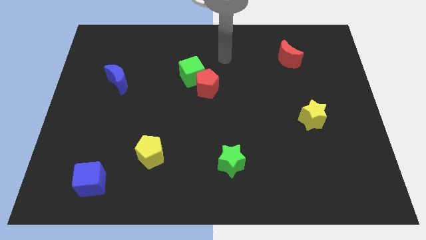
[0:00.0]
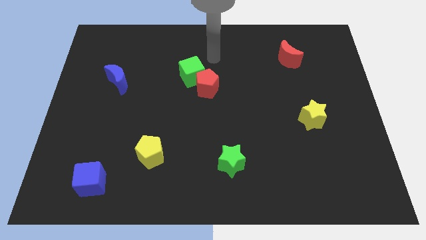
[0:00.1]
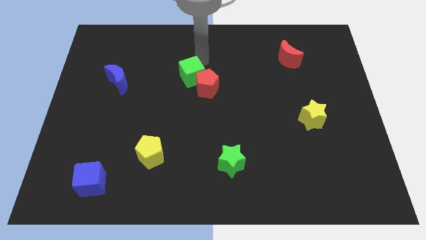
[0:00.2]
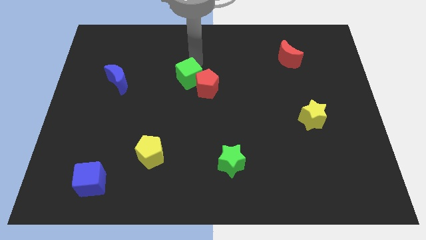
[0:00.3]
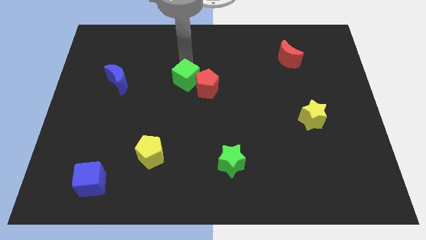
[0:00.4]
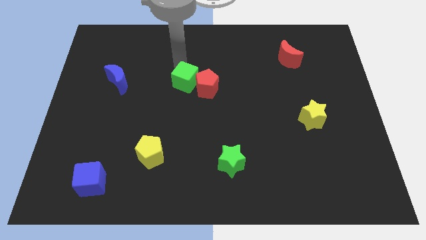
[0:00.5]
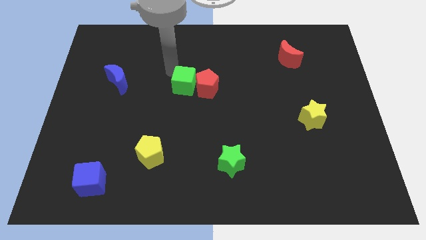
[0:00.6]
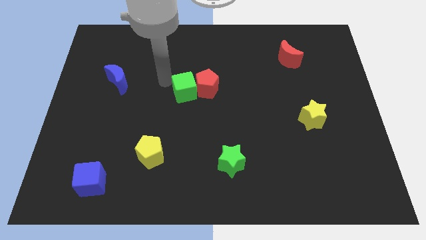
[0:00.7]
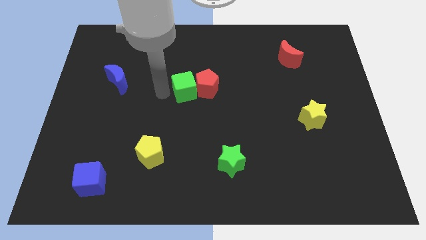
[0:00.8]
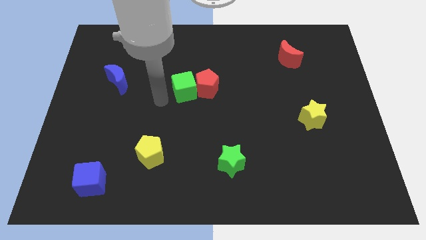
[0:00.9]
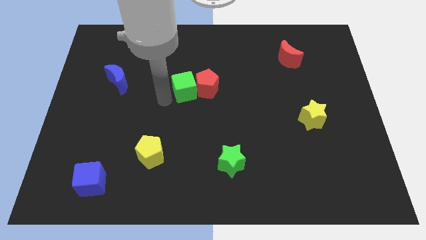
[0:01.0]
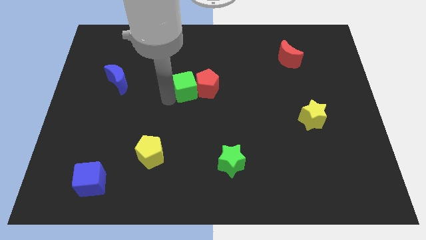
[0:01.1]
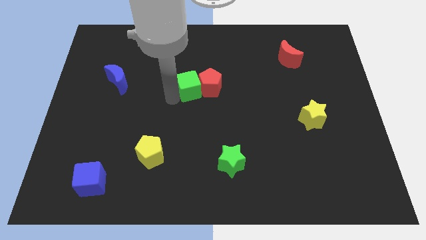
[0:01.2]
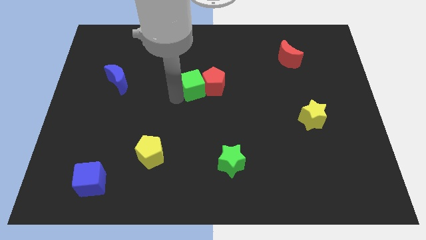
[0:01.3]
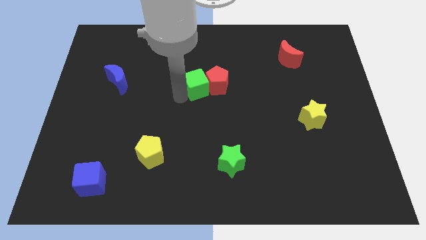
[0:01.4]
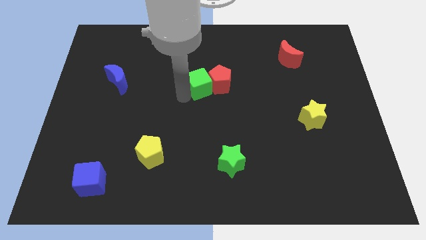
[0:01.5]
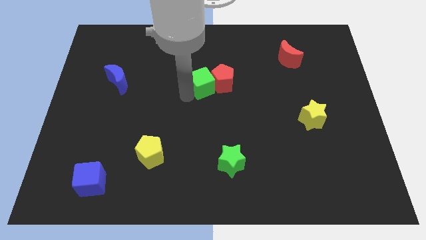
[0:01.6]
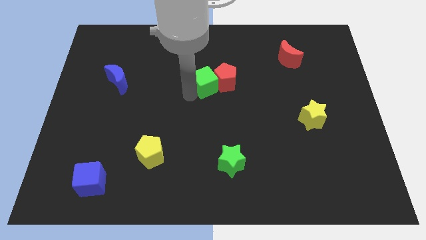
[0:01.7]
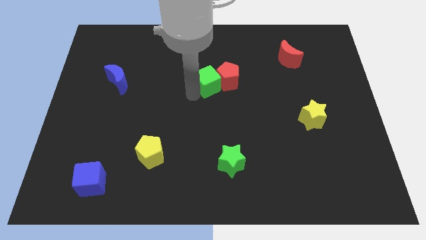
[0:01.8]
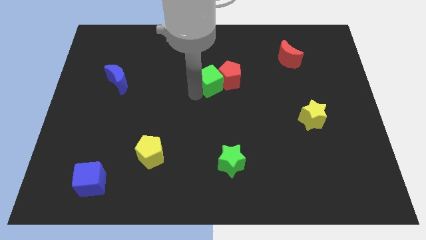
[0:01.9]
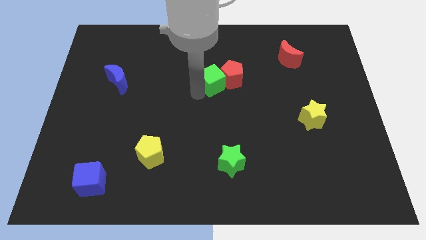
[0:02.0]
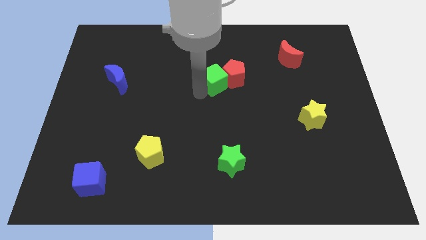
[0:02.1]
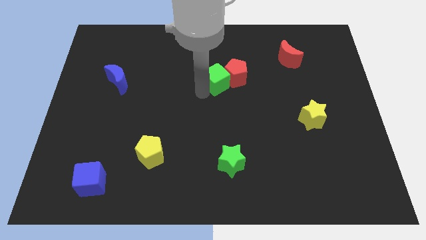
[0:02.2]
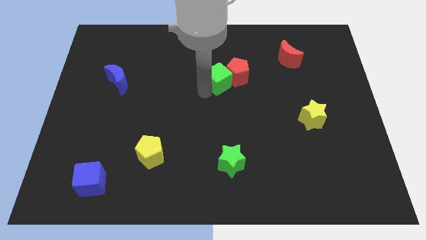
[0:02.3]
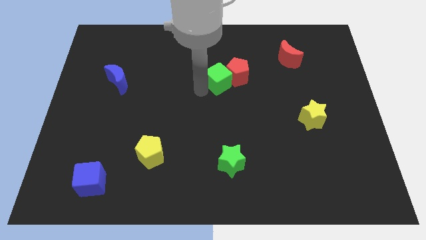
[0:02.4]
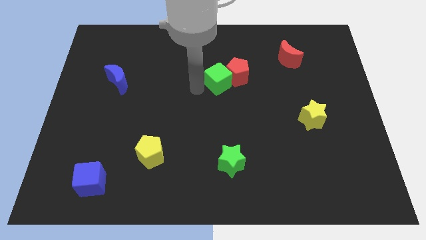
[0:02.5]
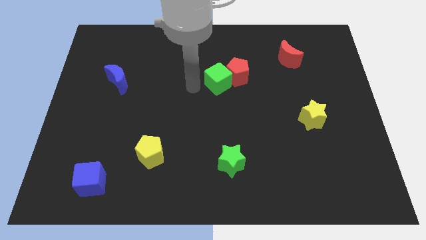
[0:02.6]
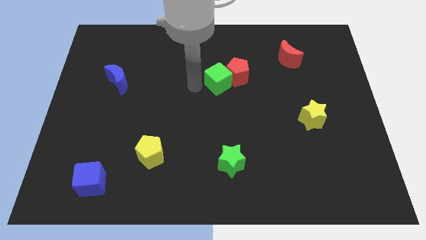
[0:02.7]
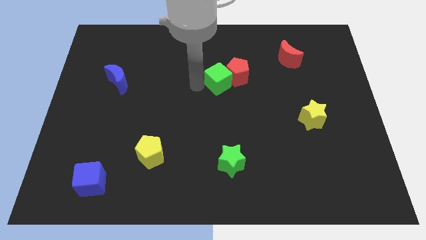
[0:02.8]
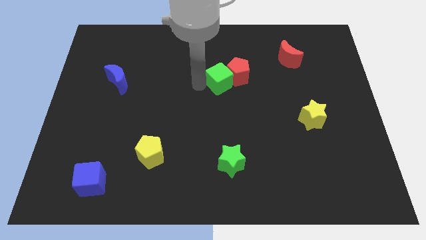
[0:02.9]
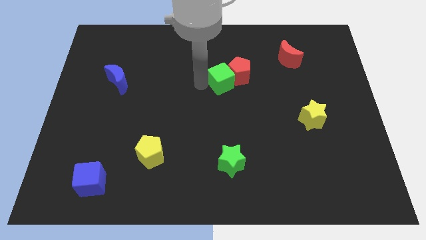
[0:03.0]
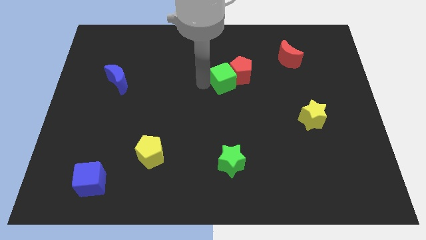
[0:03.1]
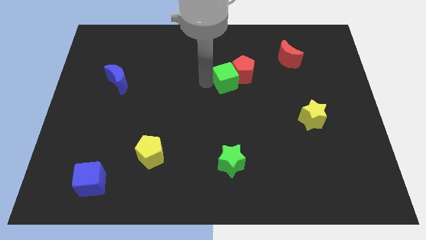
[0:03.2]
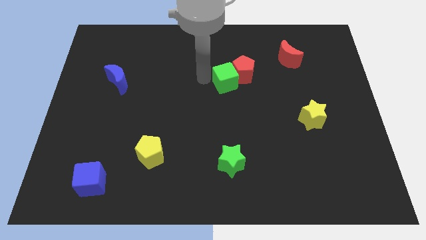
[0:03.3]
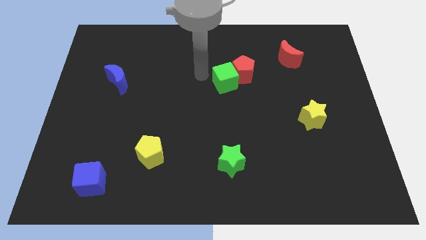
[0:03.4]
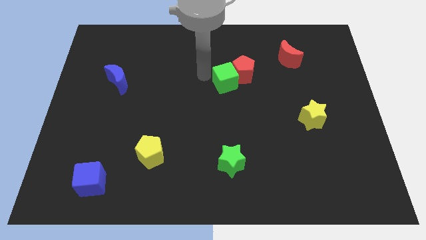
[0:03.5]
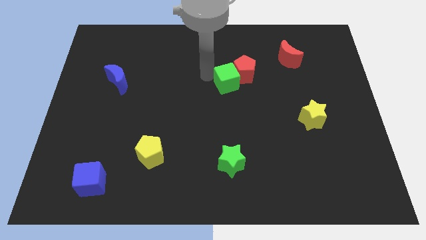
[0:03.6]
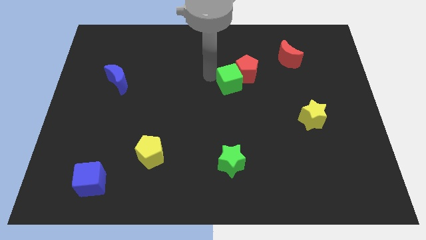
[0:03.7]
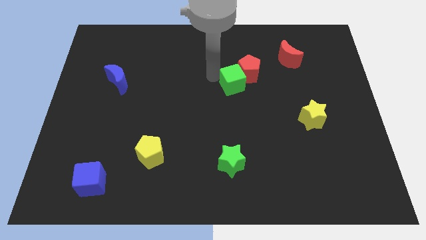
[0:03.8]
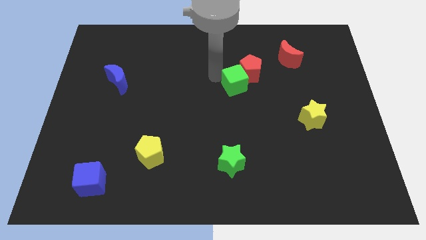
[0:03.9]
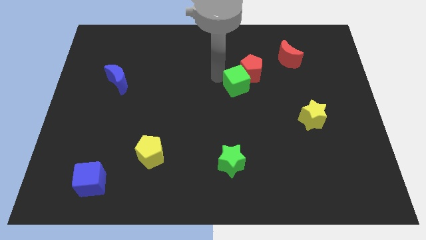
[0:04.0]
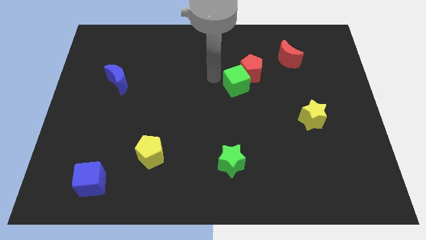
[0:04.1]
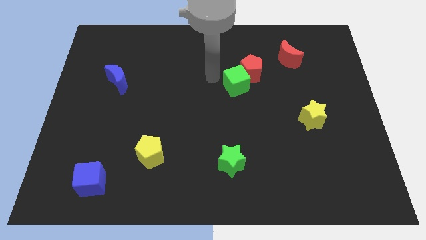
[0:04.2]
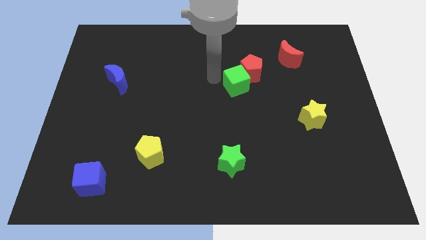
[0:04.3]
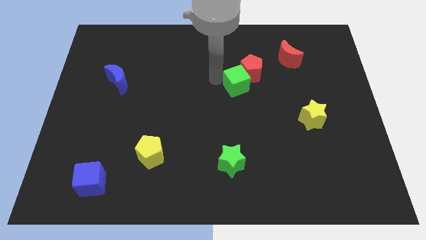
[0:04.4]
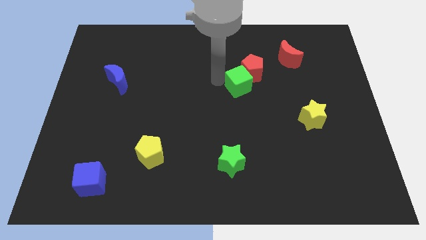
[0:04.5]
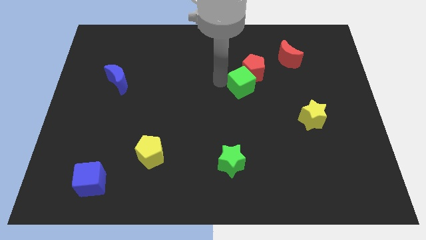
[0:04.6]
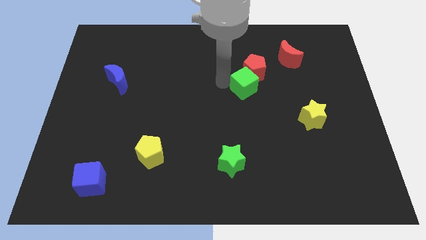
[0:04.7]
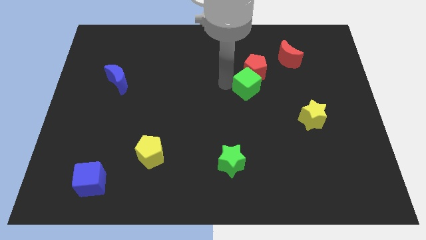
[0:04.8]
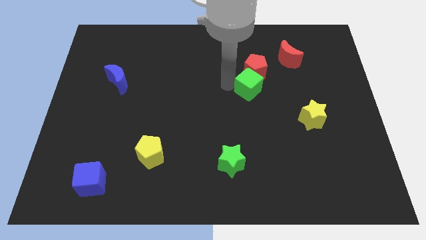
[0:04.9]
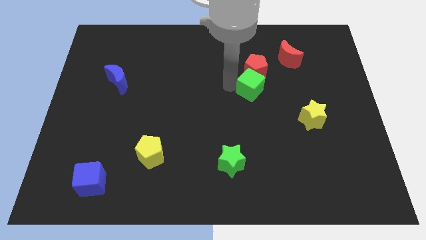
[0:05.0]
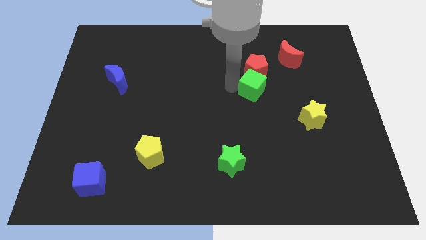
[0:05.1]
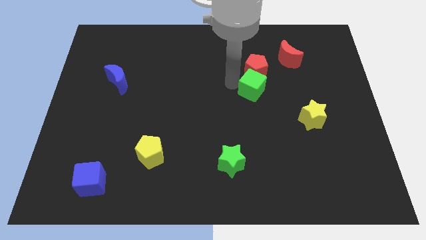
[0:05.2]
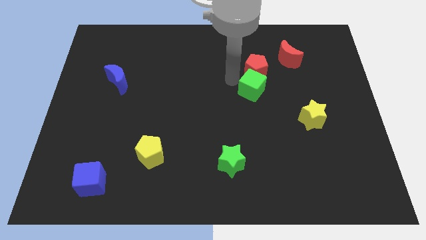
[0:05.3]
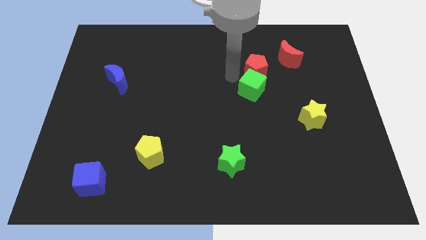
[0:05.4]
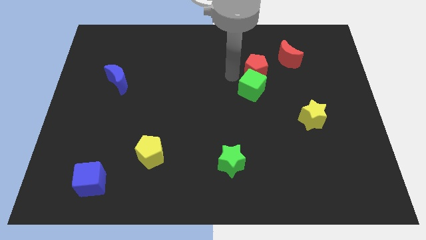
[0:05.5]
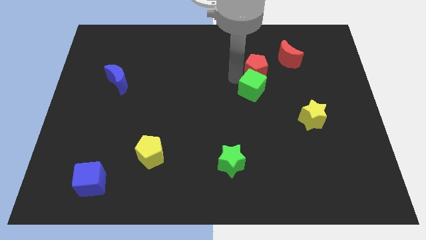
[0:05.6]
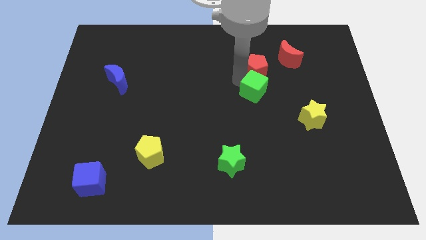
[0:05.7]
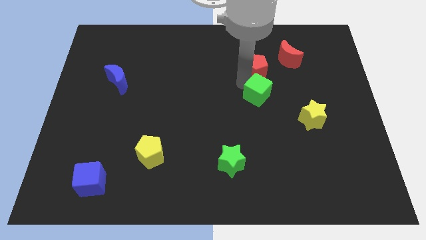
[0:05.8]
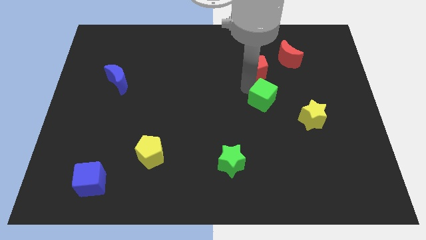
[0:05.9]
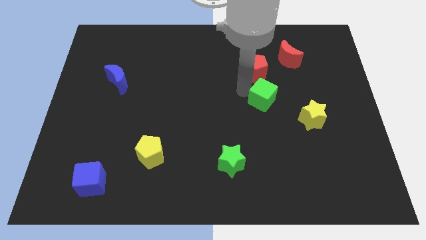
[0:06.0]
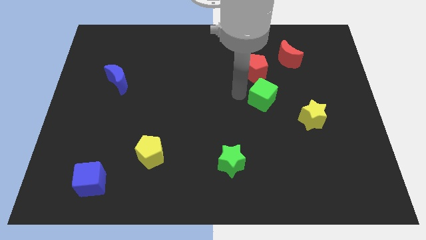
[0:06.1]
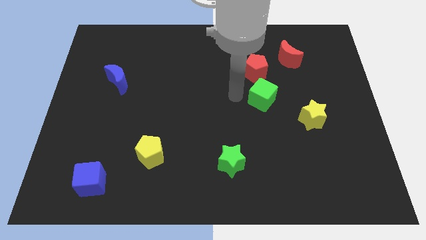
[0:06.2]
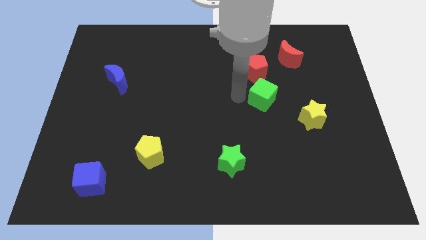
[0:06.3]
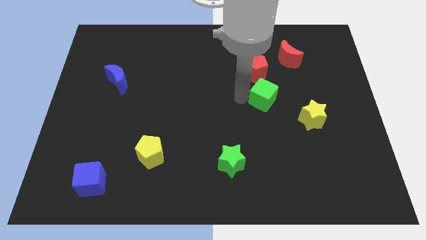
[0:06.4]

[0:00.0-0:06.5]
put the green cube to the top left side of the yellow star

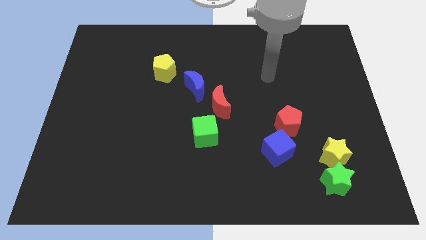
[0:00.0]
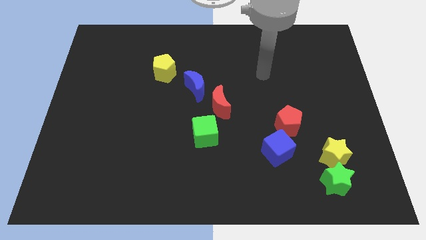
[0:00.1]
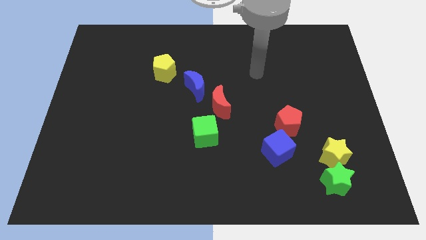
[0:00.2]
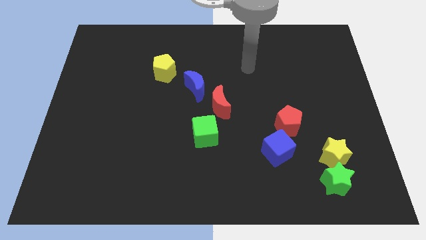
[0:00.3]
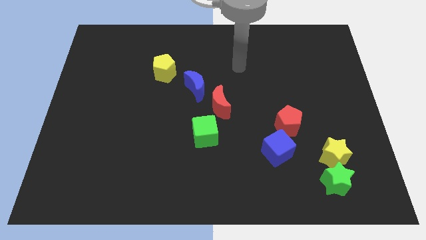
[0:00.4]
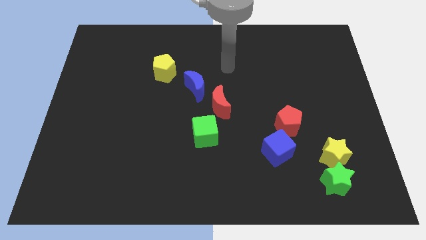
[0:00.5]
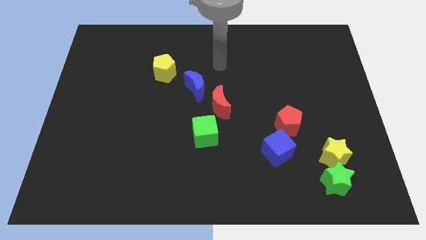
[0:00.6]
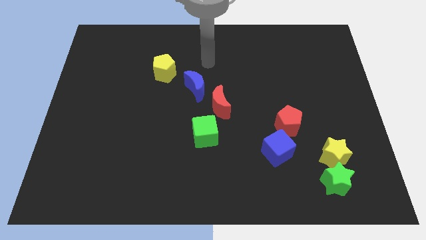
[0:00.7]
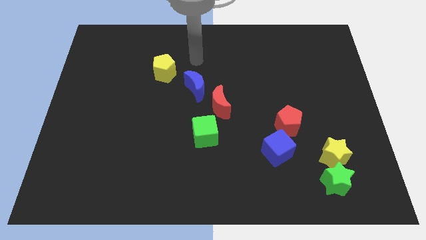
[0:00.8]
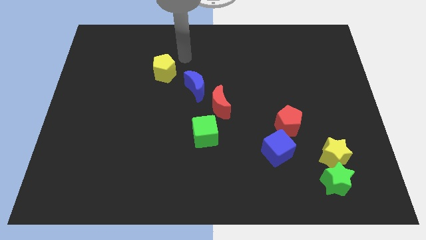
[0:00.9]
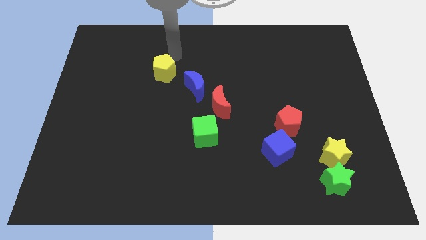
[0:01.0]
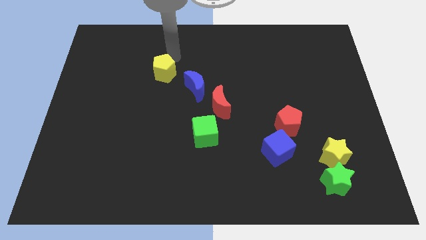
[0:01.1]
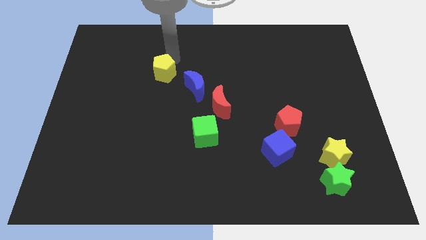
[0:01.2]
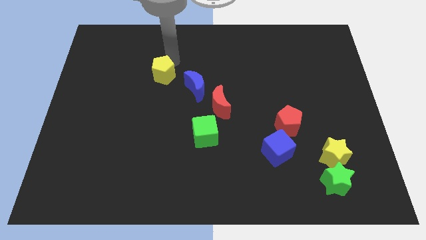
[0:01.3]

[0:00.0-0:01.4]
put the yellow pentagon to the left of the blue moon
